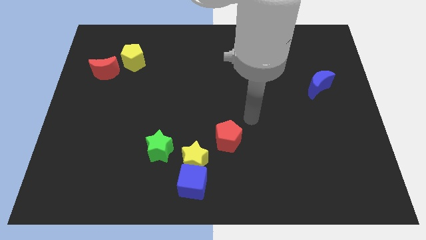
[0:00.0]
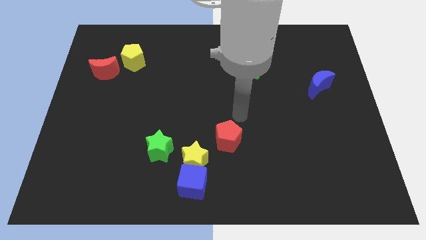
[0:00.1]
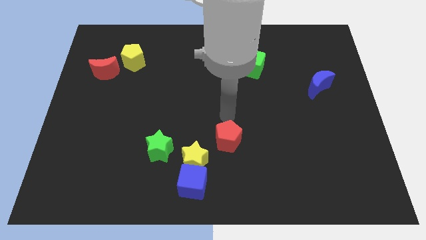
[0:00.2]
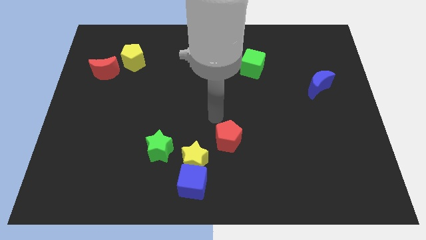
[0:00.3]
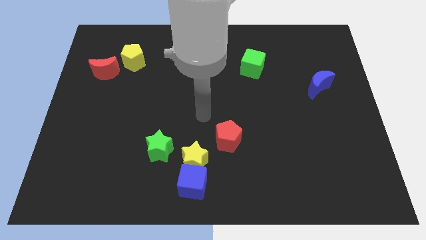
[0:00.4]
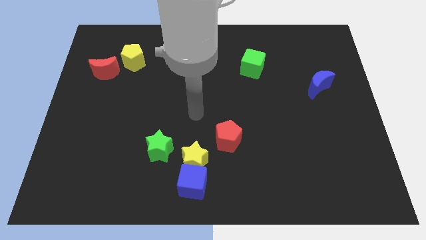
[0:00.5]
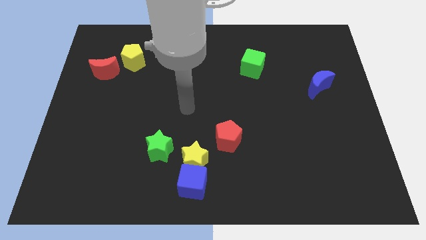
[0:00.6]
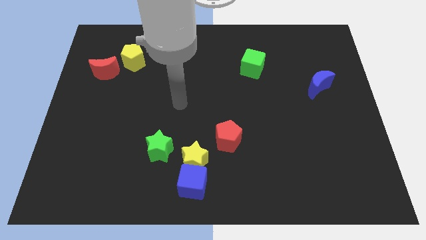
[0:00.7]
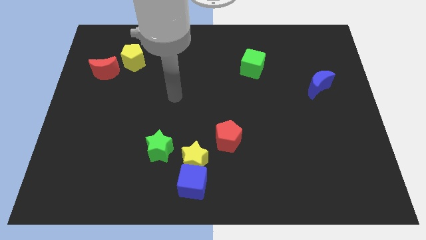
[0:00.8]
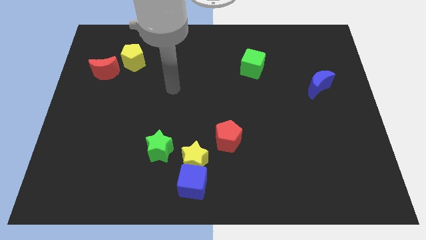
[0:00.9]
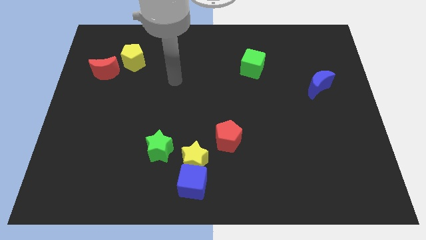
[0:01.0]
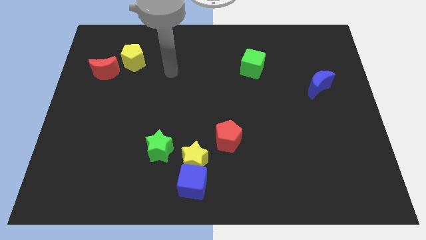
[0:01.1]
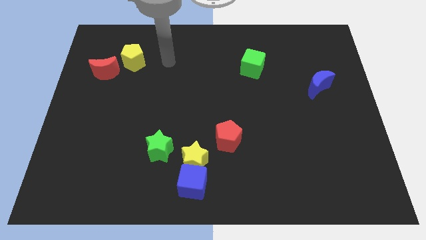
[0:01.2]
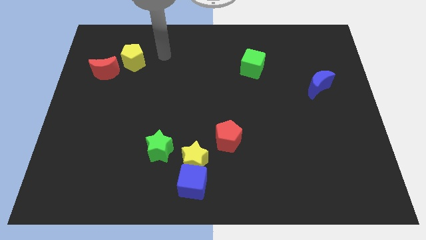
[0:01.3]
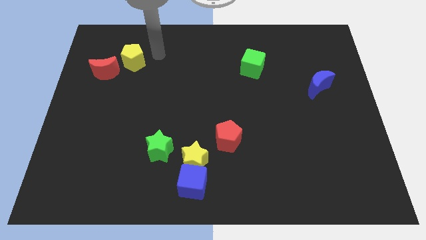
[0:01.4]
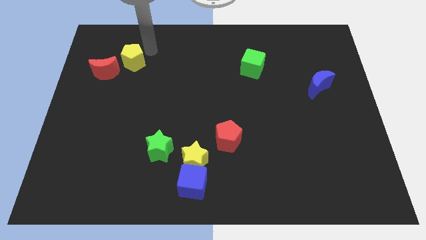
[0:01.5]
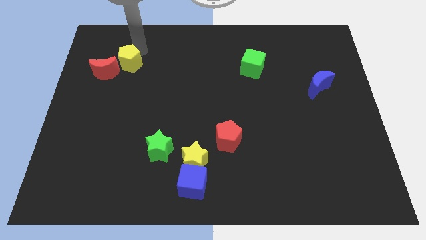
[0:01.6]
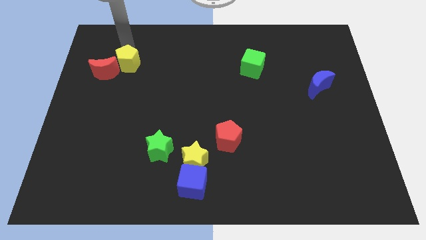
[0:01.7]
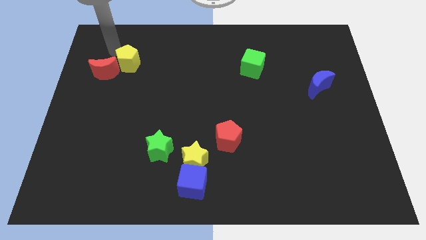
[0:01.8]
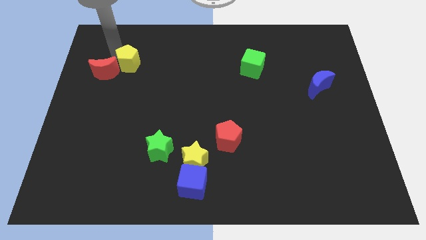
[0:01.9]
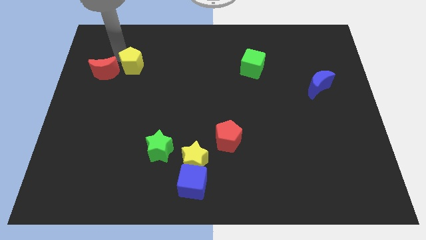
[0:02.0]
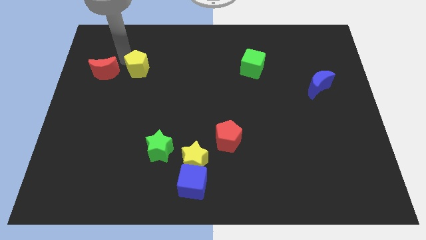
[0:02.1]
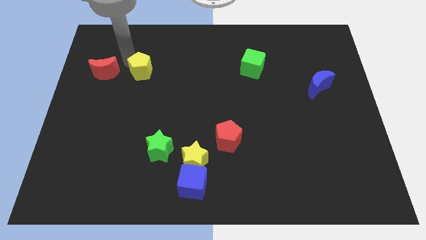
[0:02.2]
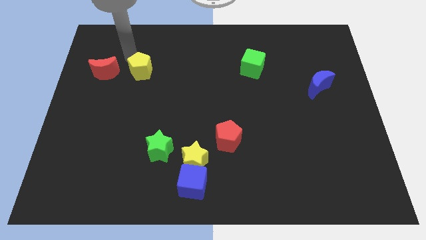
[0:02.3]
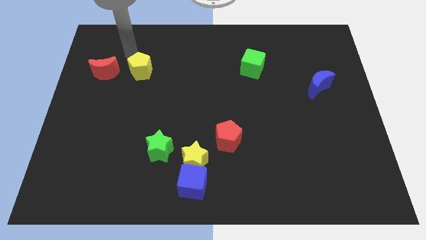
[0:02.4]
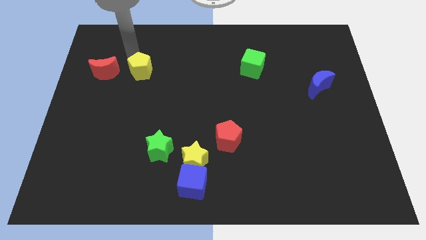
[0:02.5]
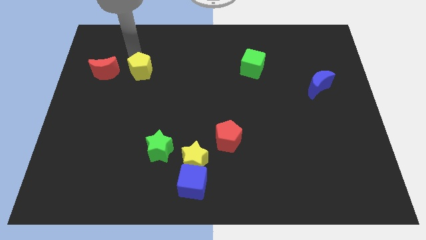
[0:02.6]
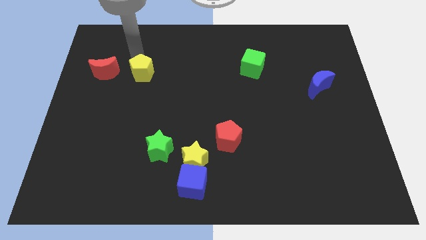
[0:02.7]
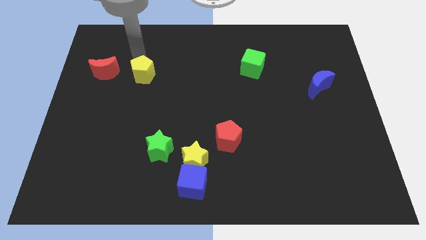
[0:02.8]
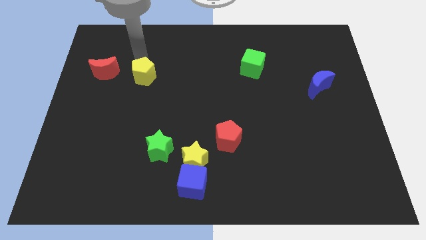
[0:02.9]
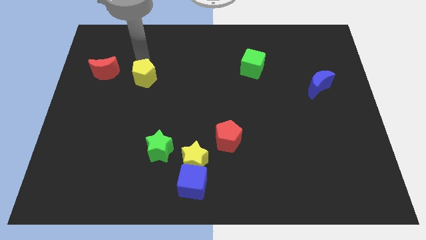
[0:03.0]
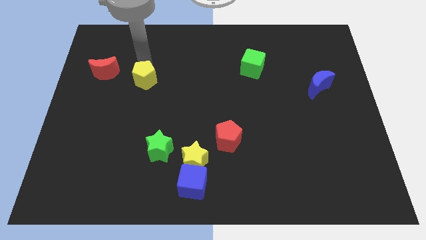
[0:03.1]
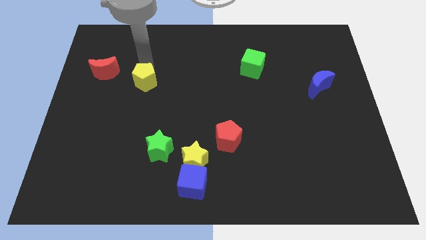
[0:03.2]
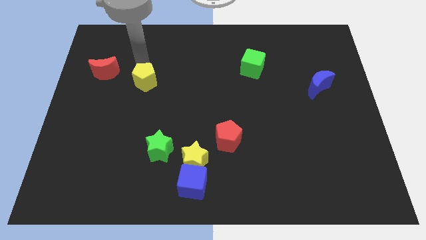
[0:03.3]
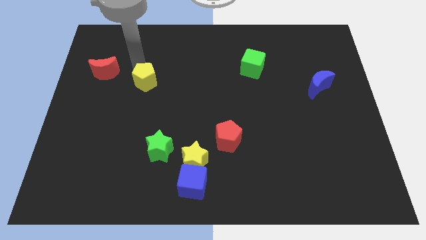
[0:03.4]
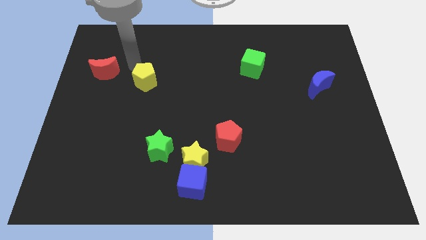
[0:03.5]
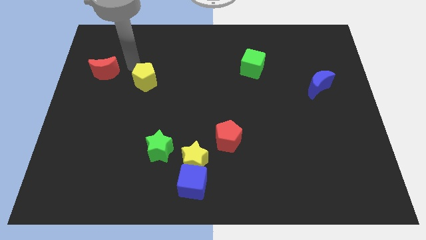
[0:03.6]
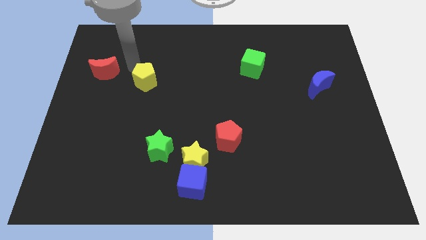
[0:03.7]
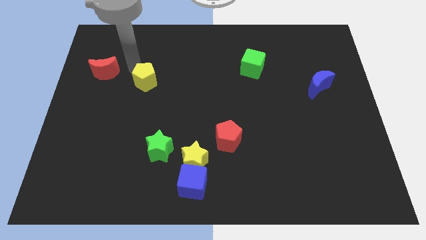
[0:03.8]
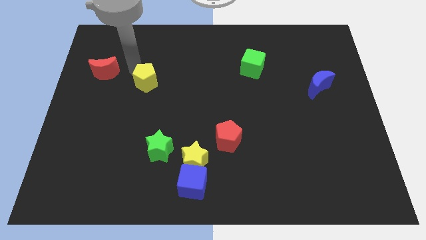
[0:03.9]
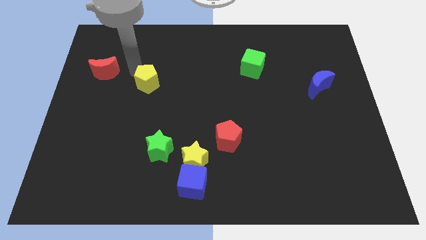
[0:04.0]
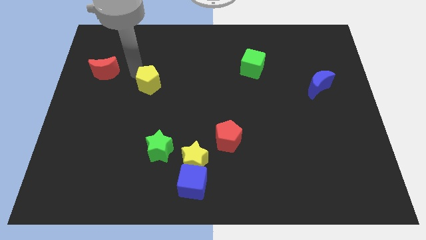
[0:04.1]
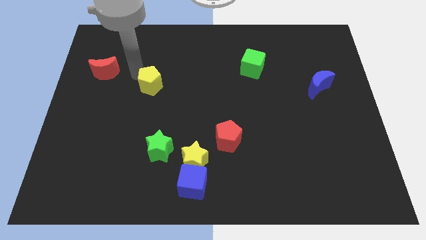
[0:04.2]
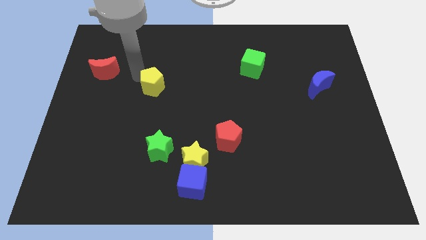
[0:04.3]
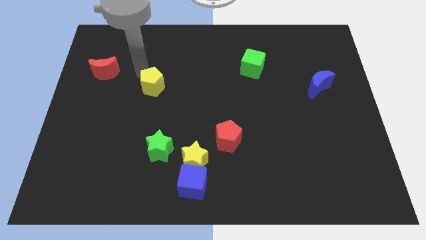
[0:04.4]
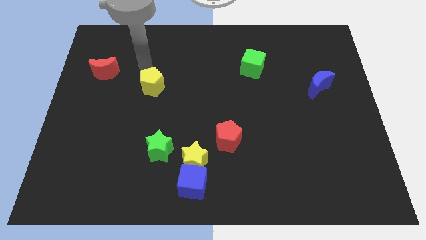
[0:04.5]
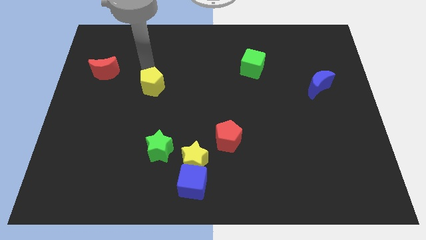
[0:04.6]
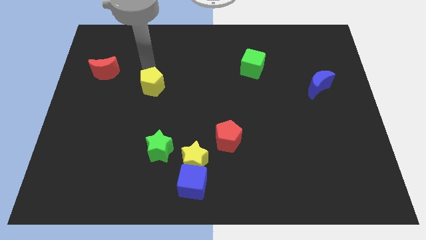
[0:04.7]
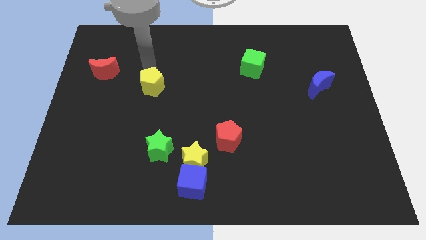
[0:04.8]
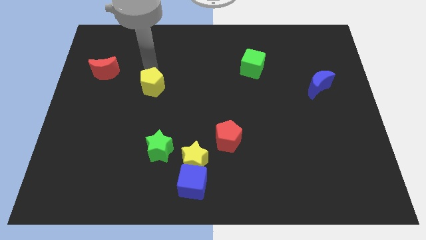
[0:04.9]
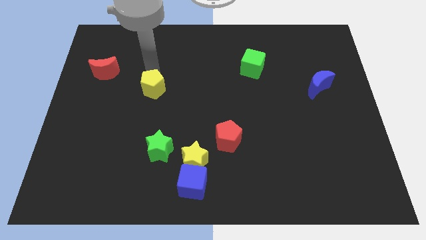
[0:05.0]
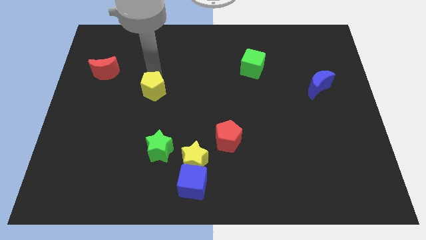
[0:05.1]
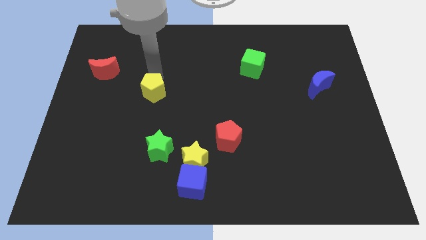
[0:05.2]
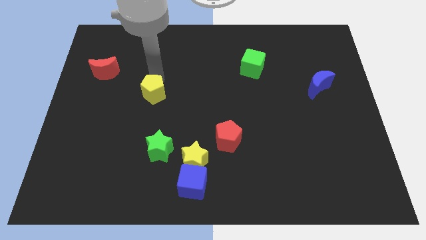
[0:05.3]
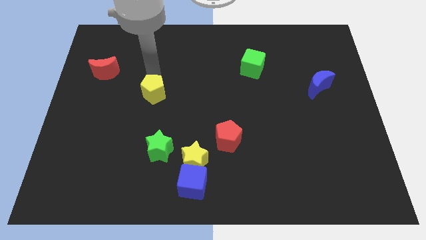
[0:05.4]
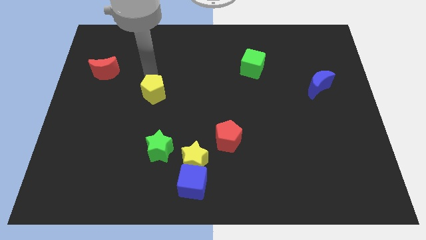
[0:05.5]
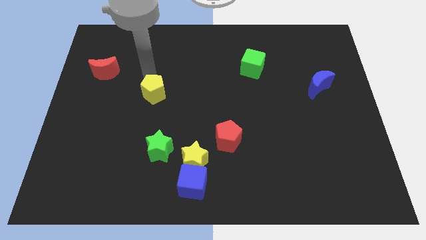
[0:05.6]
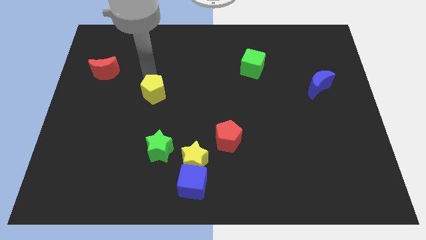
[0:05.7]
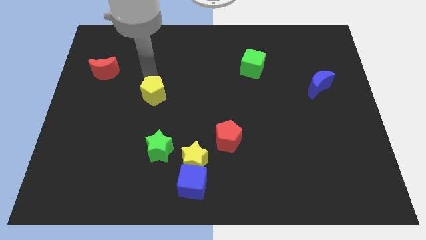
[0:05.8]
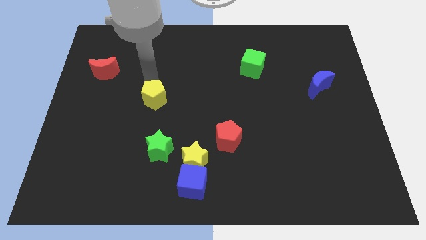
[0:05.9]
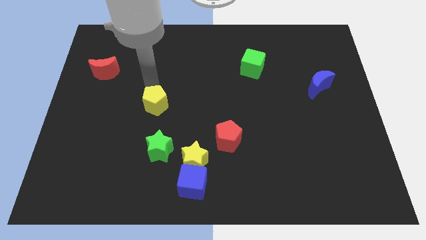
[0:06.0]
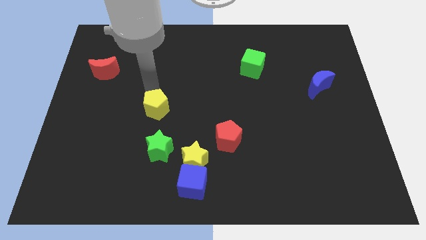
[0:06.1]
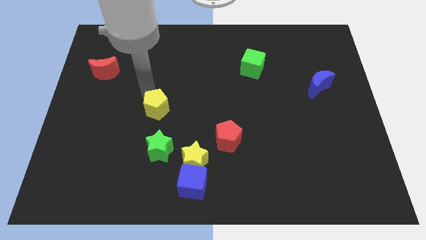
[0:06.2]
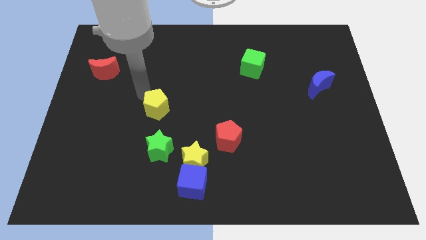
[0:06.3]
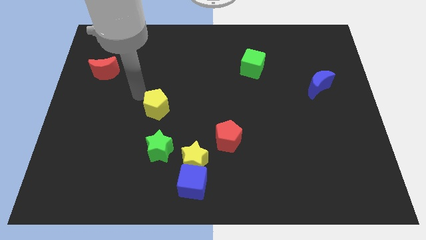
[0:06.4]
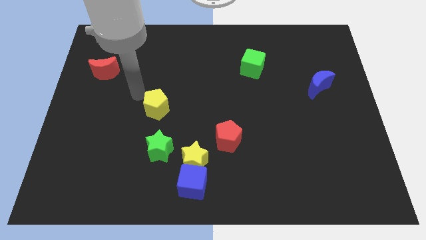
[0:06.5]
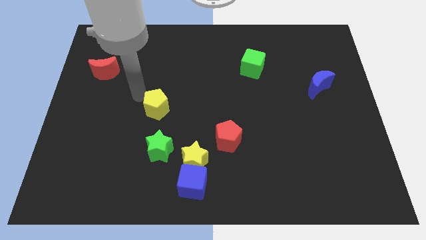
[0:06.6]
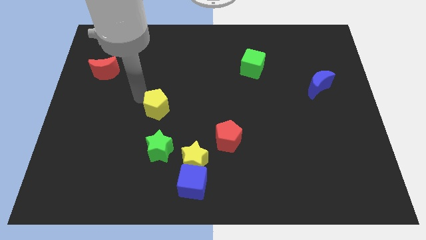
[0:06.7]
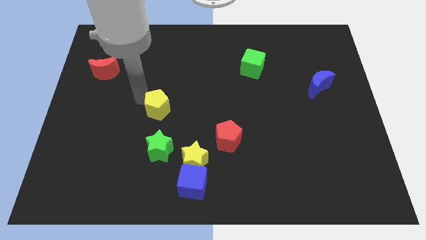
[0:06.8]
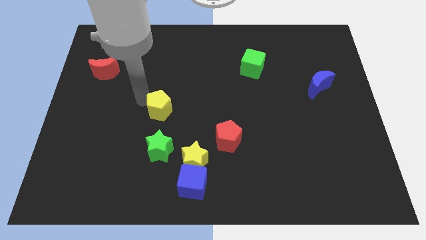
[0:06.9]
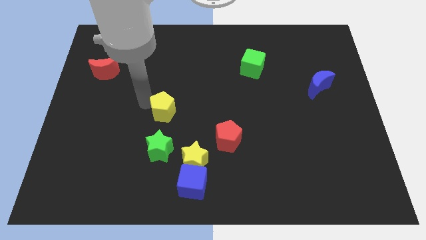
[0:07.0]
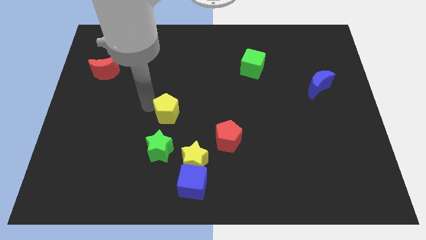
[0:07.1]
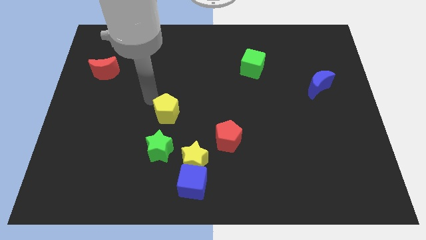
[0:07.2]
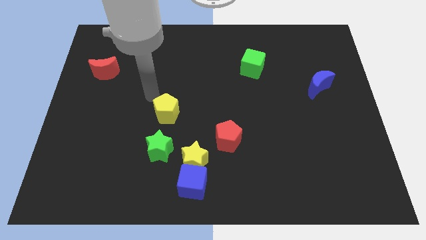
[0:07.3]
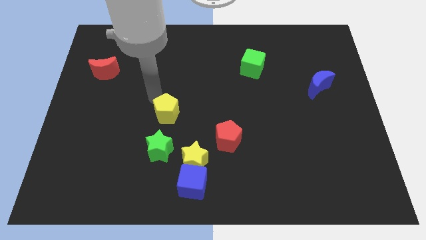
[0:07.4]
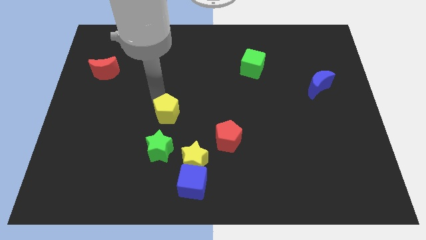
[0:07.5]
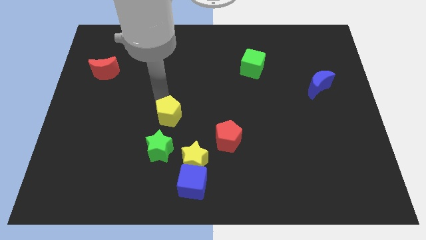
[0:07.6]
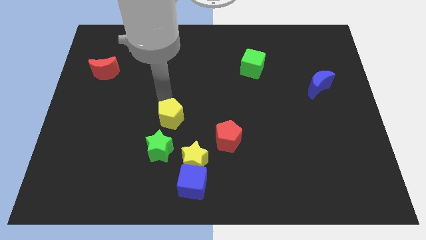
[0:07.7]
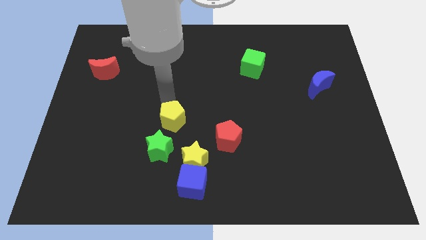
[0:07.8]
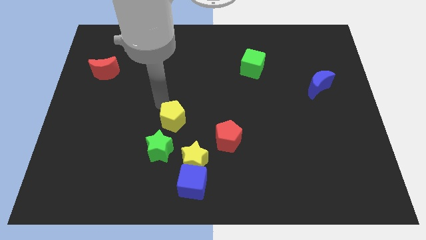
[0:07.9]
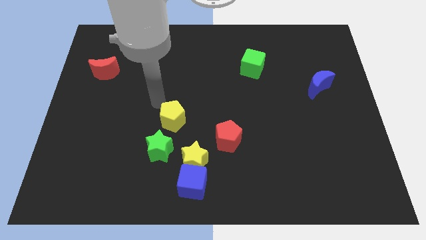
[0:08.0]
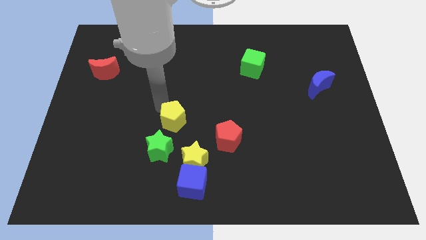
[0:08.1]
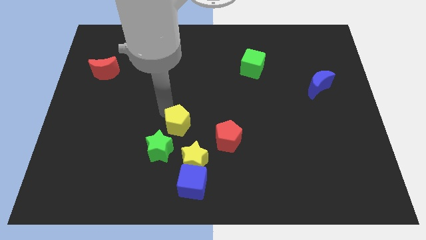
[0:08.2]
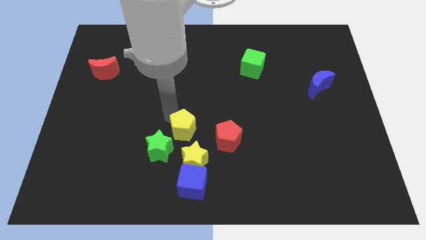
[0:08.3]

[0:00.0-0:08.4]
slide the yellow pentagon above the blue cube
